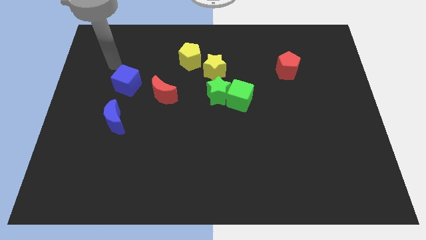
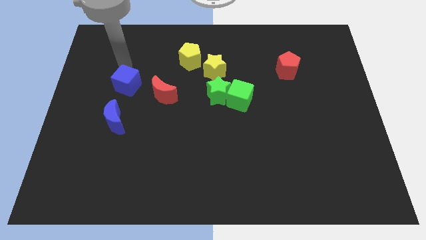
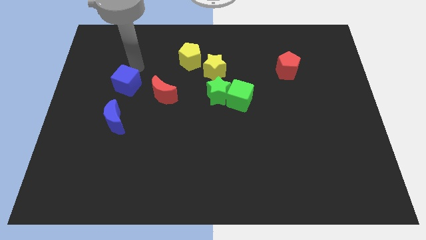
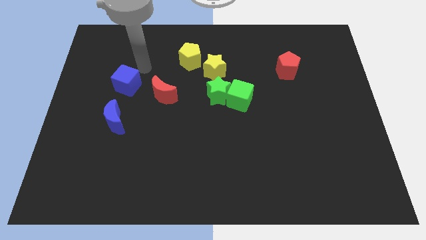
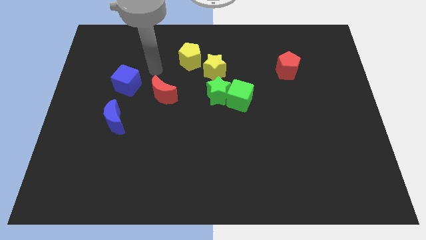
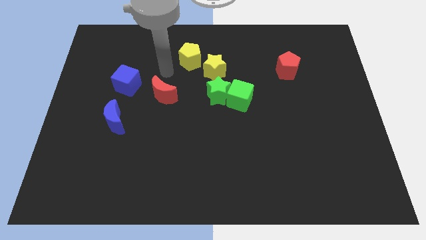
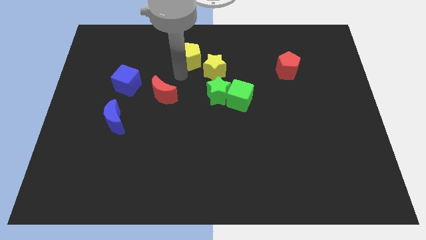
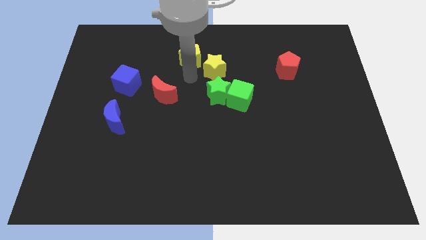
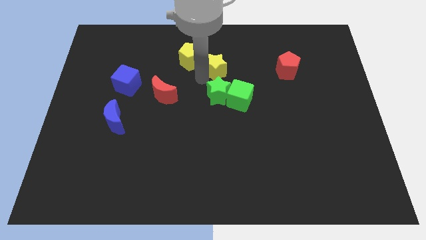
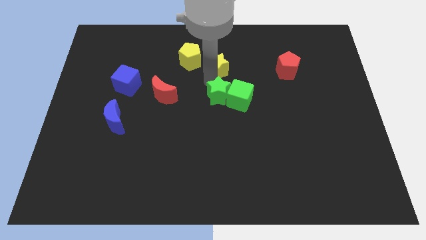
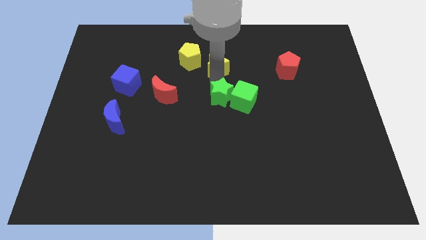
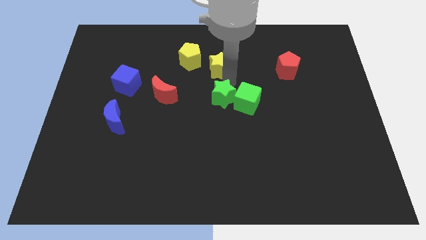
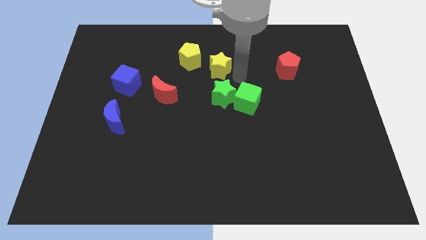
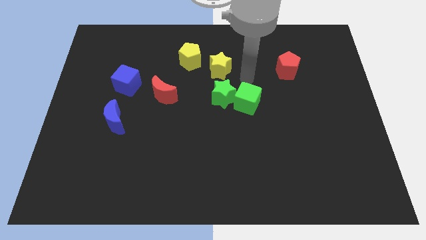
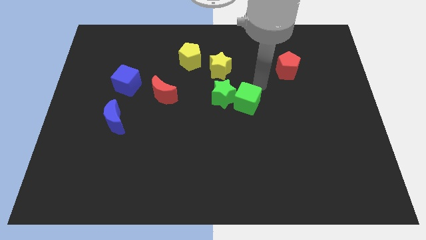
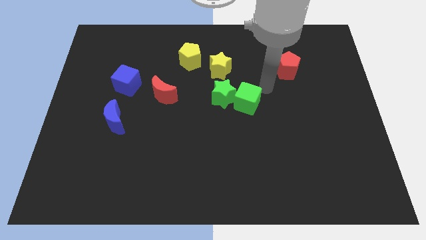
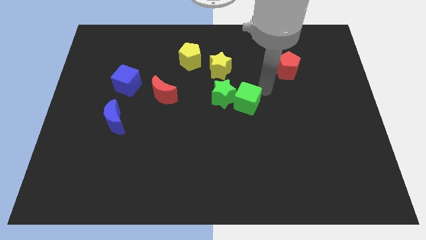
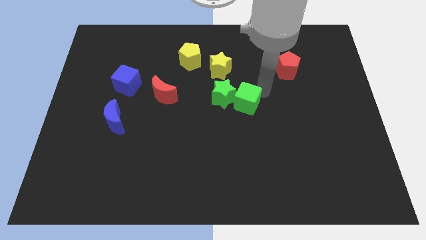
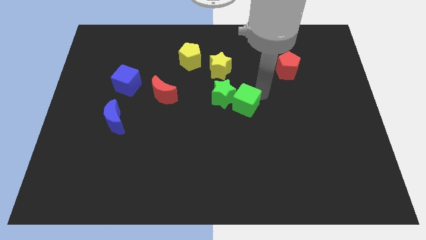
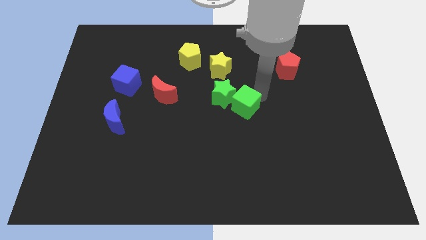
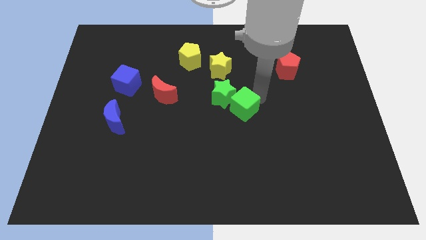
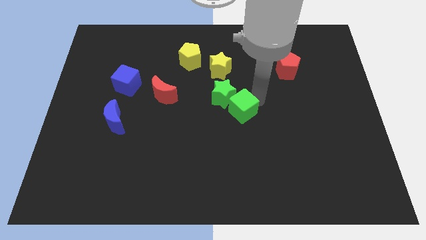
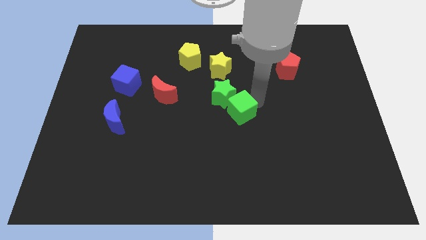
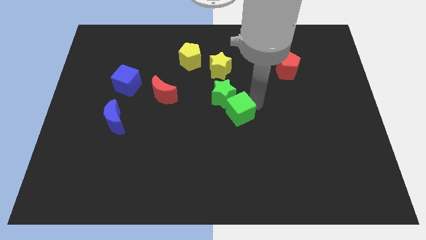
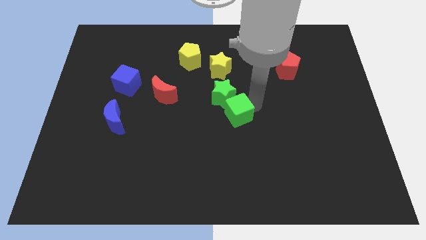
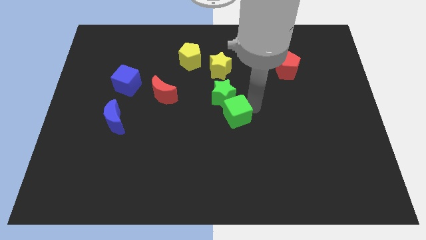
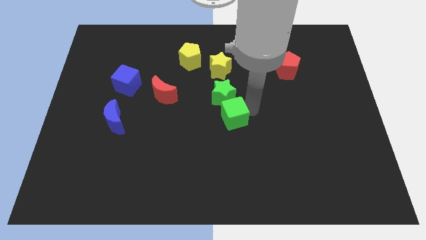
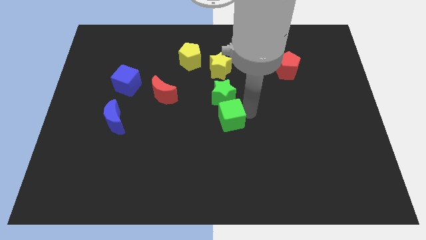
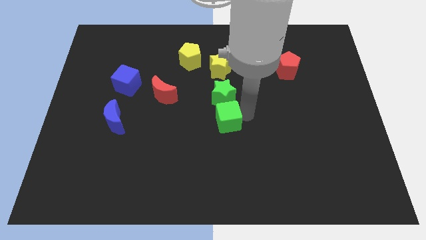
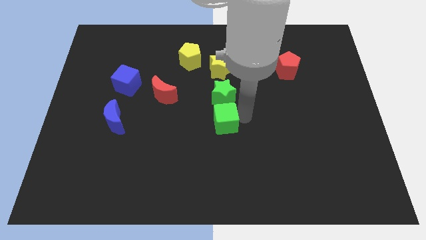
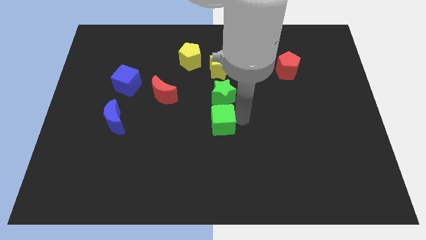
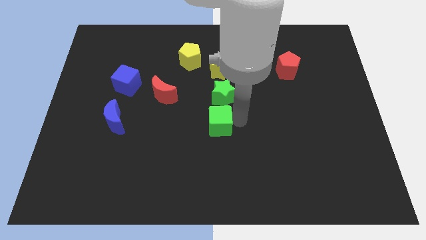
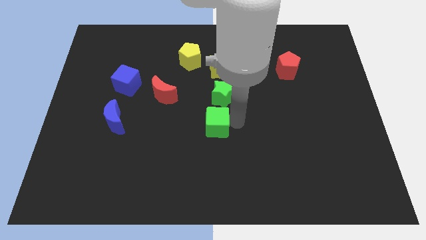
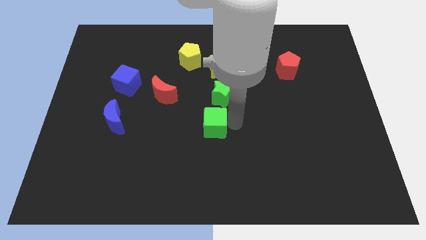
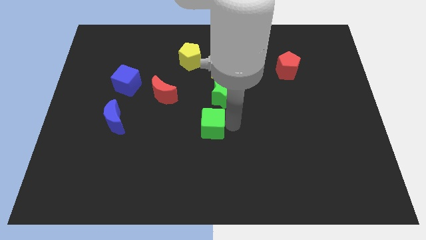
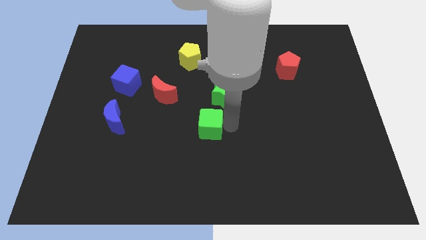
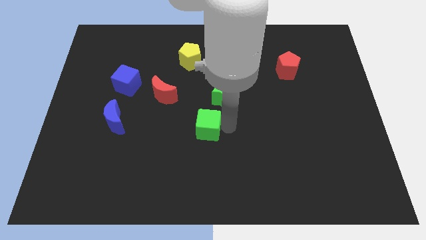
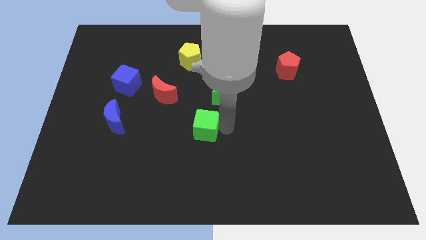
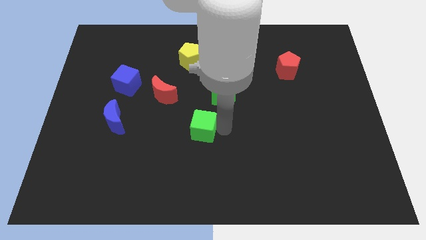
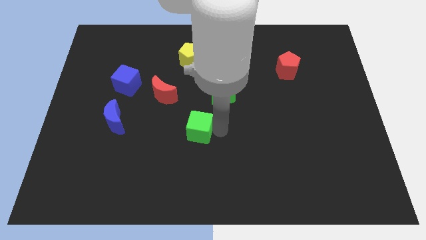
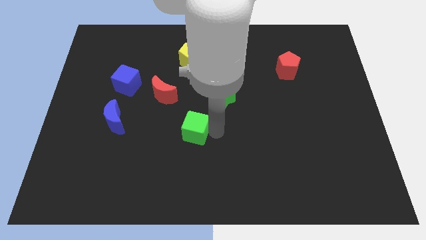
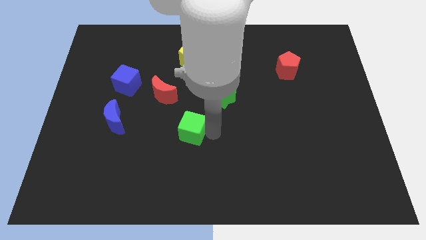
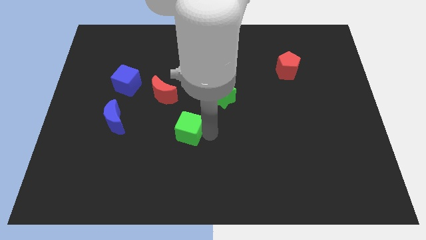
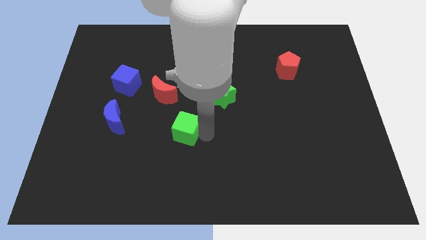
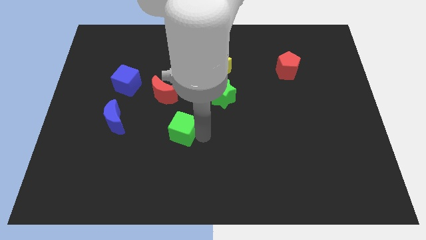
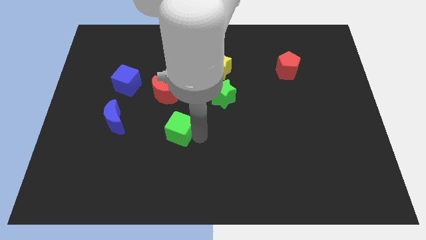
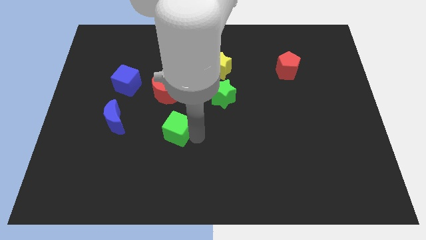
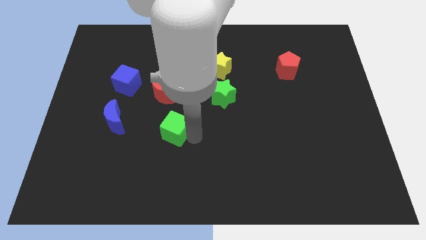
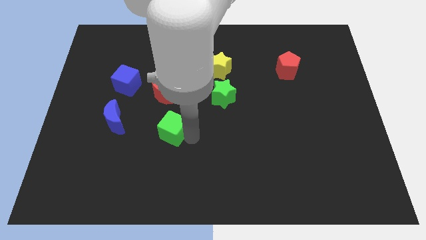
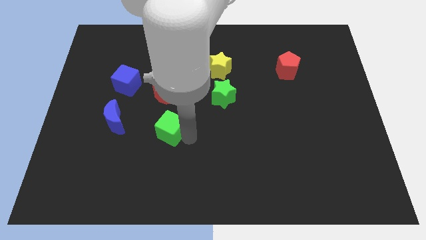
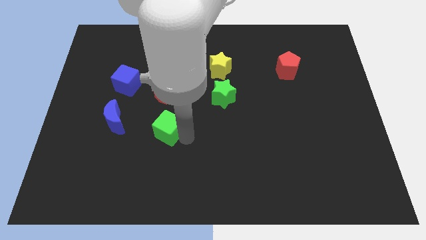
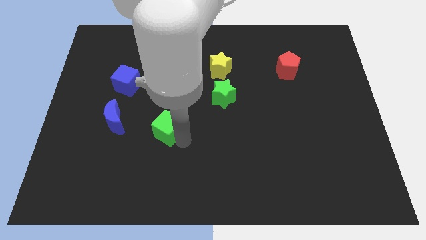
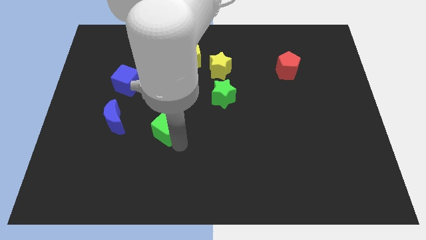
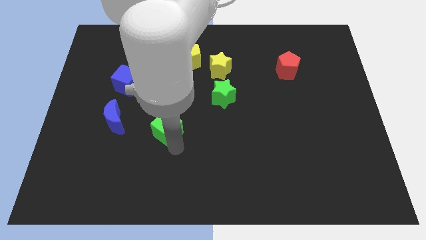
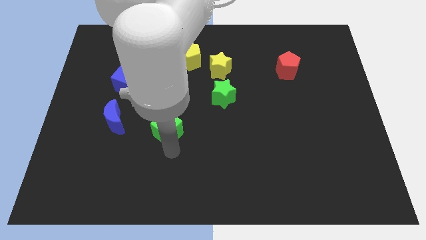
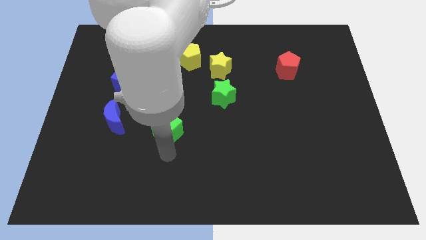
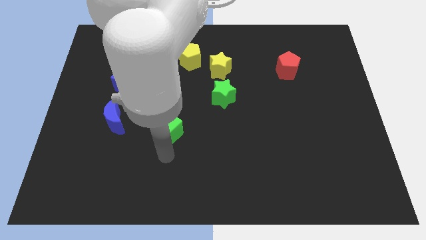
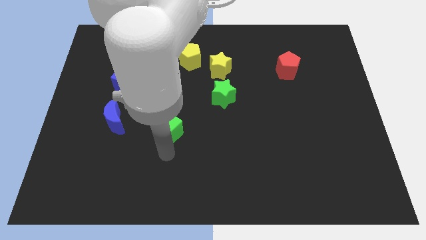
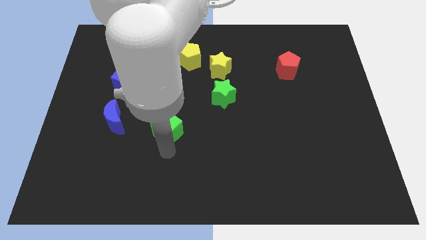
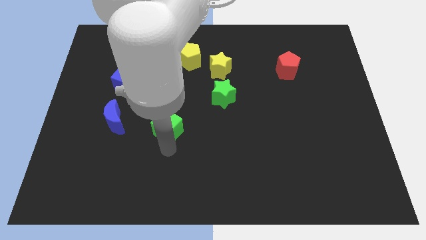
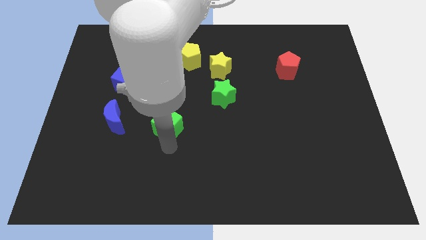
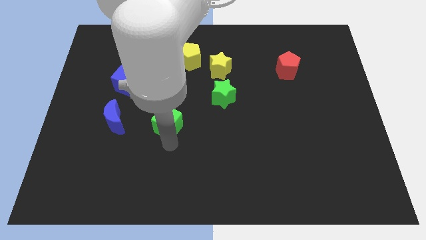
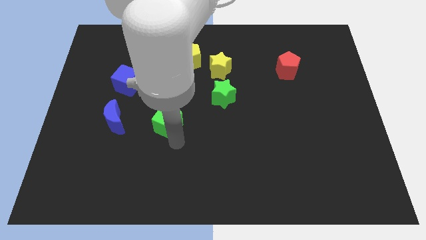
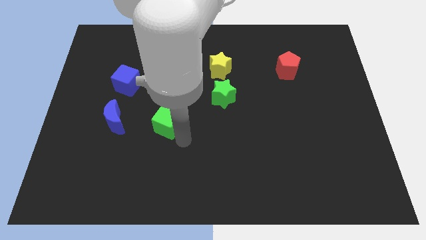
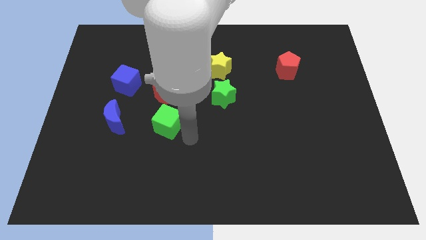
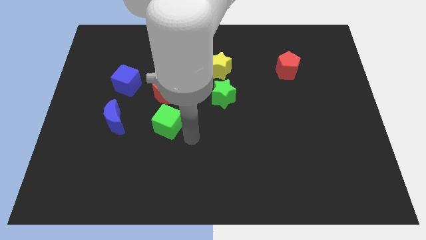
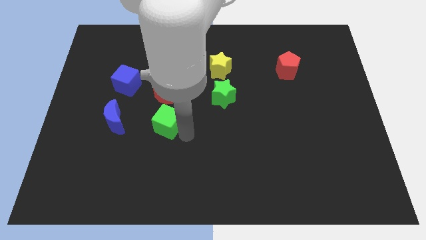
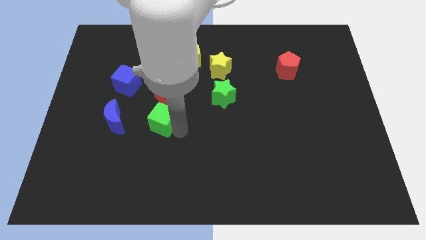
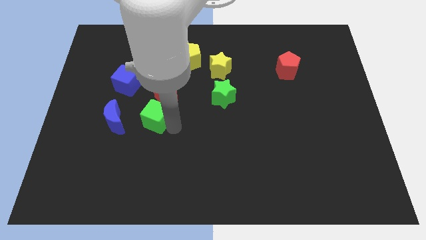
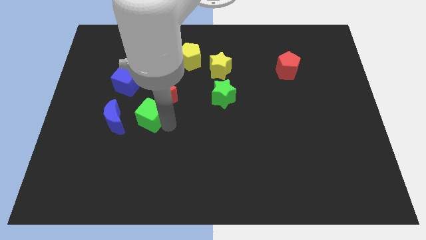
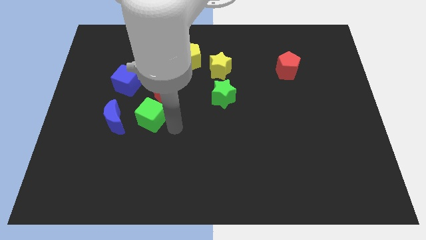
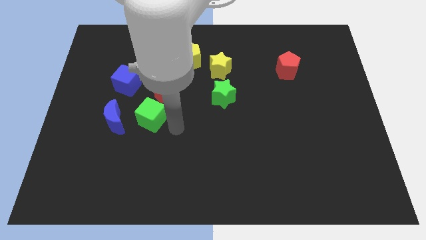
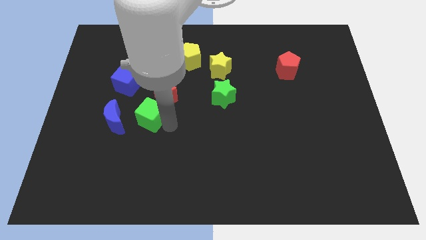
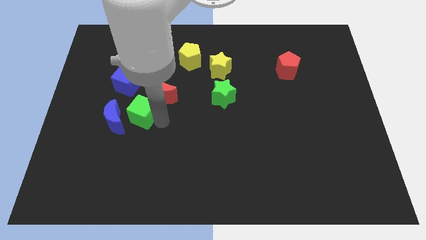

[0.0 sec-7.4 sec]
push the green cube to the left

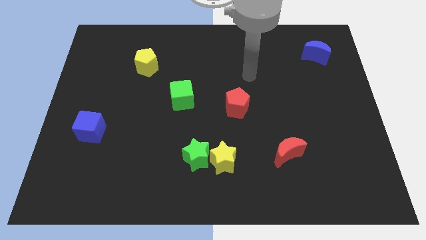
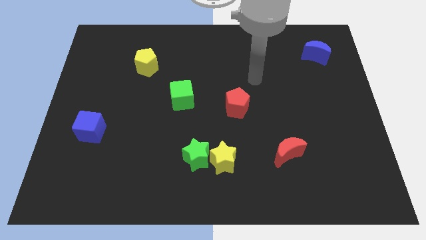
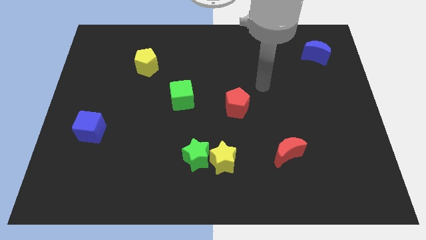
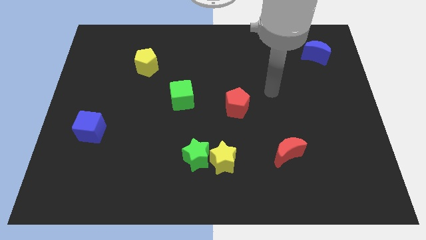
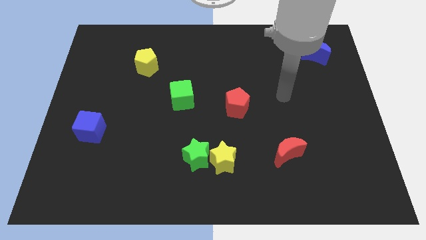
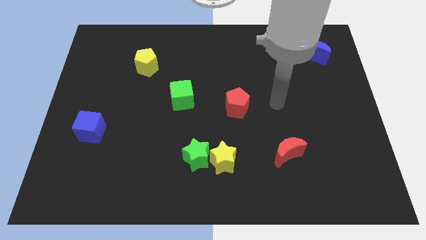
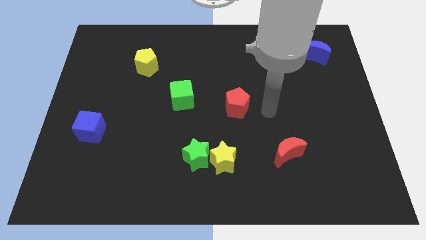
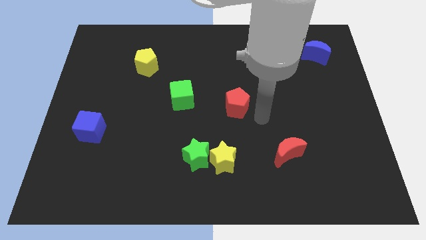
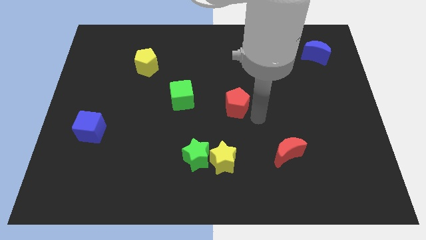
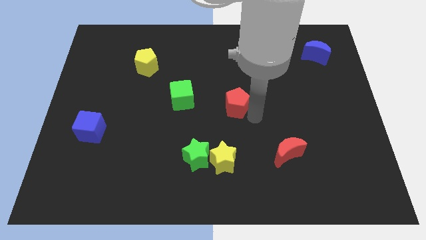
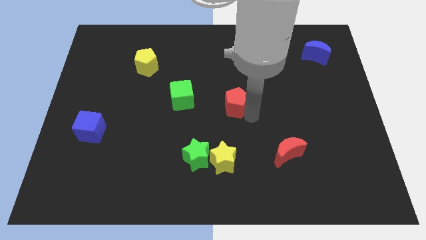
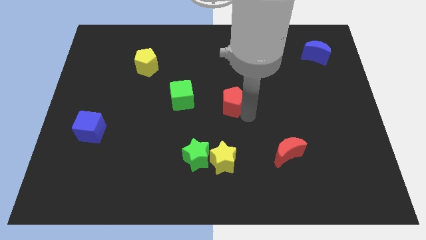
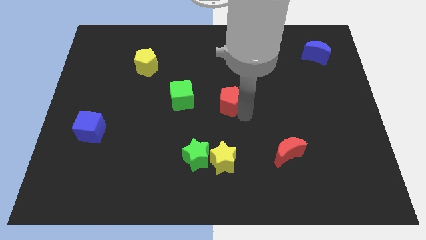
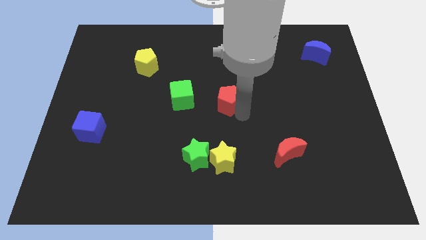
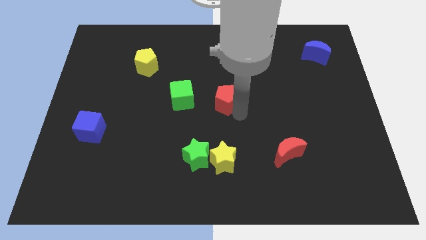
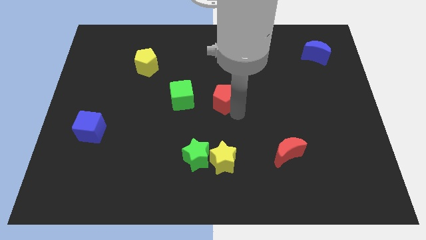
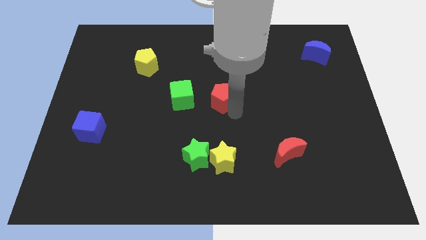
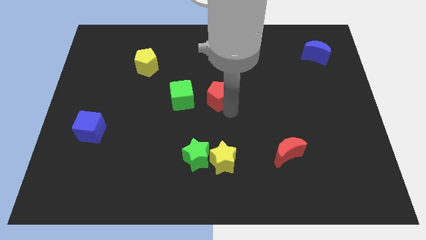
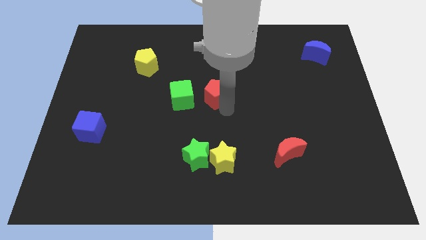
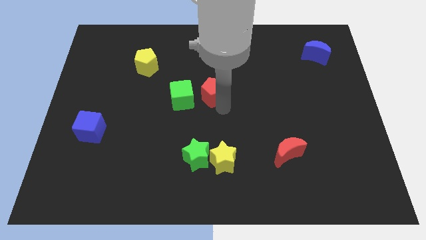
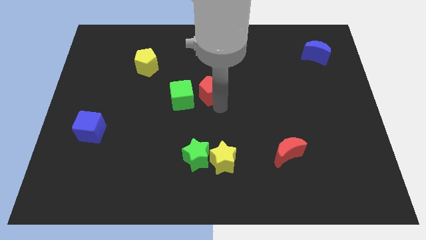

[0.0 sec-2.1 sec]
push the red pentagon a little up and to the left
